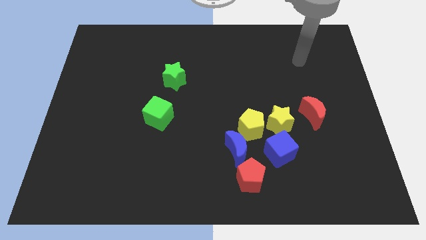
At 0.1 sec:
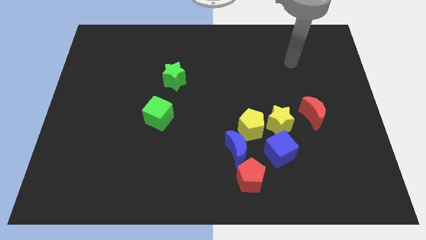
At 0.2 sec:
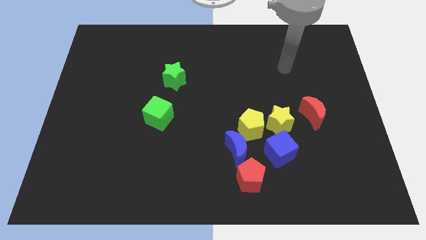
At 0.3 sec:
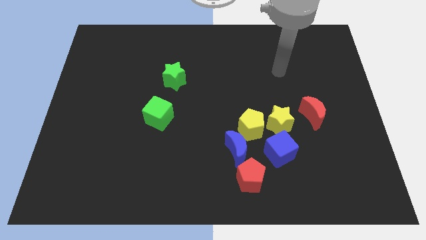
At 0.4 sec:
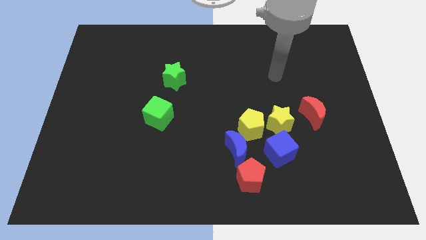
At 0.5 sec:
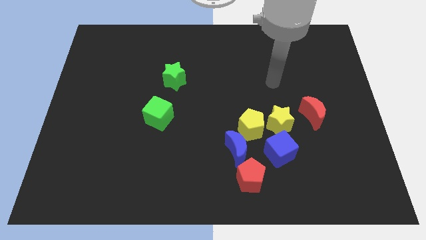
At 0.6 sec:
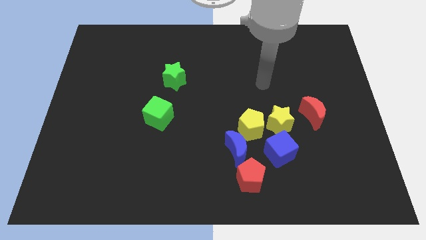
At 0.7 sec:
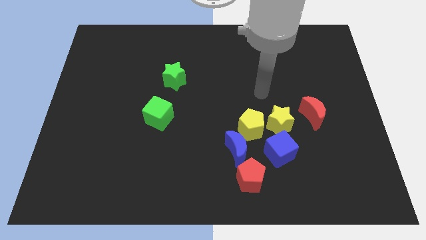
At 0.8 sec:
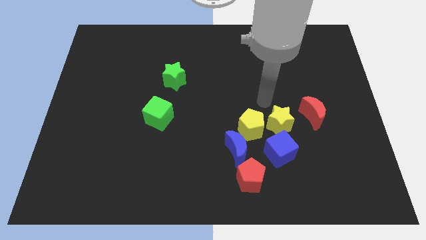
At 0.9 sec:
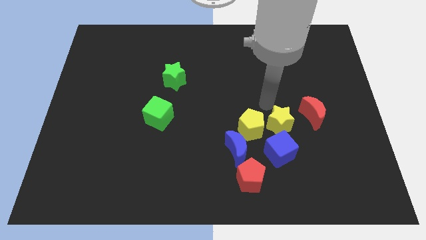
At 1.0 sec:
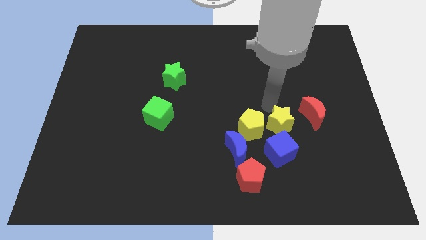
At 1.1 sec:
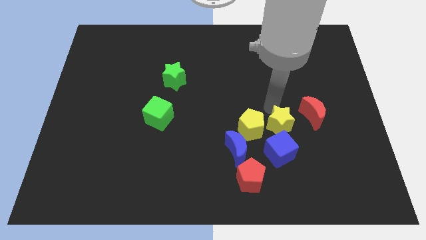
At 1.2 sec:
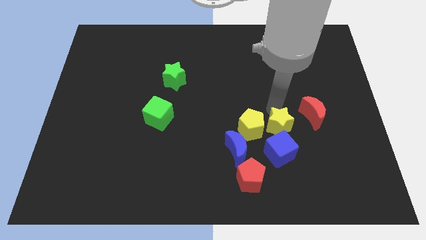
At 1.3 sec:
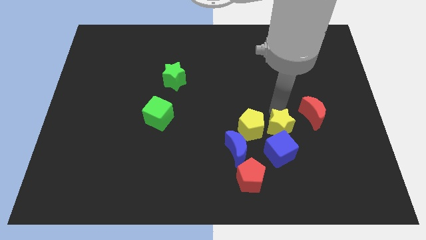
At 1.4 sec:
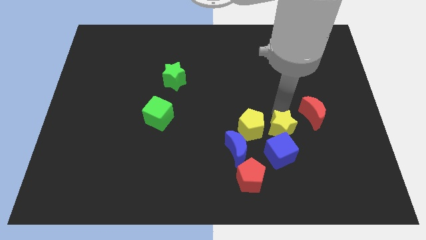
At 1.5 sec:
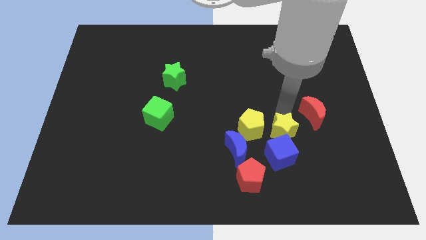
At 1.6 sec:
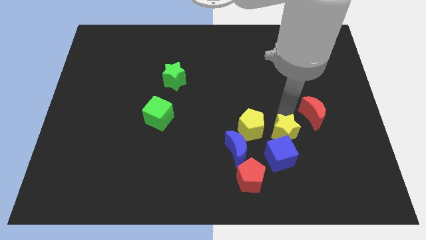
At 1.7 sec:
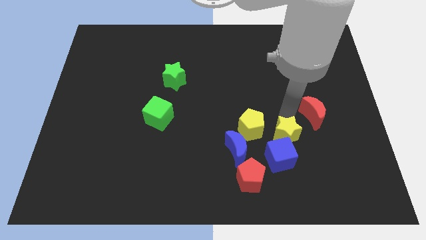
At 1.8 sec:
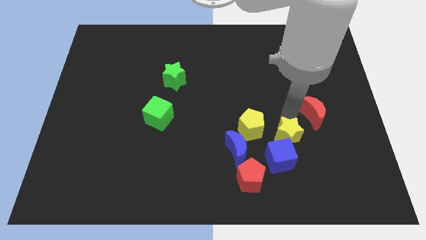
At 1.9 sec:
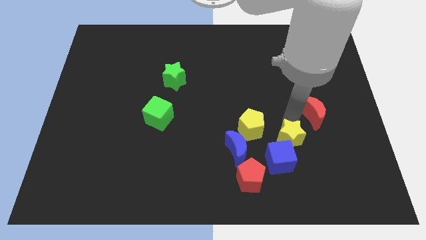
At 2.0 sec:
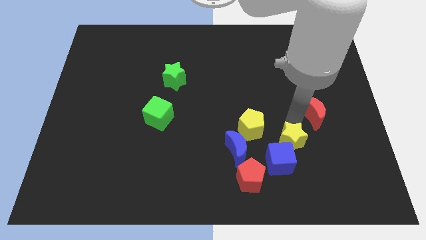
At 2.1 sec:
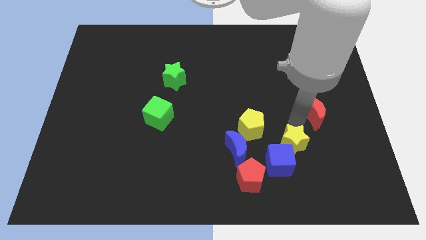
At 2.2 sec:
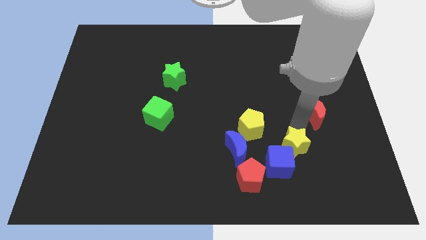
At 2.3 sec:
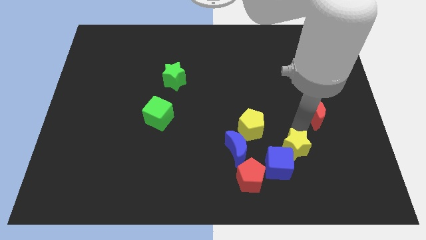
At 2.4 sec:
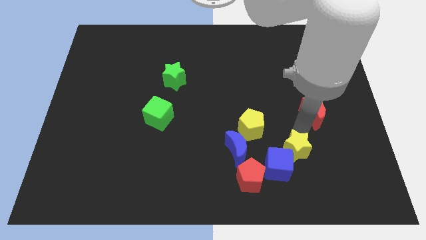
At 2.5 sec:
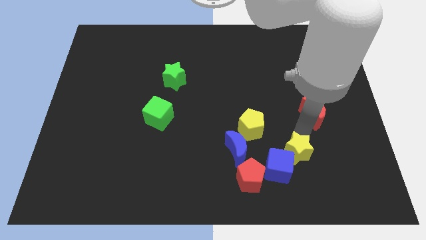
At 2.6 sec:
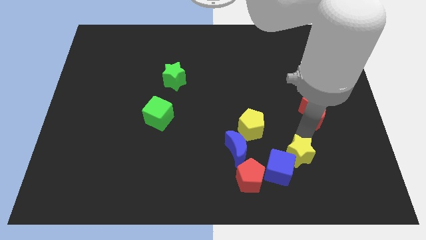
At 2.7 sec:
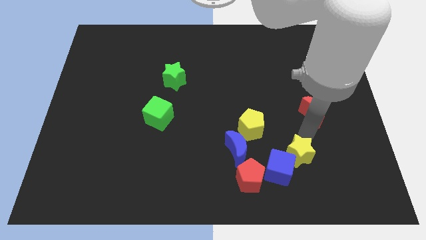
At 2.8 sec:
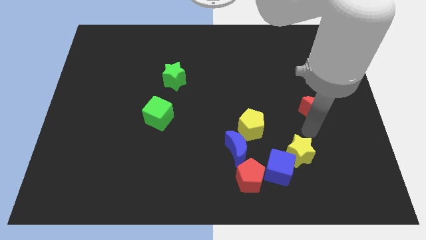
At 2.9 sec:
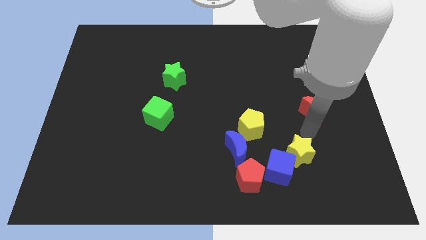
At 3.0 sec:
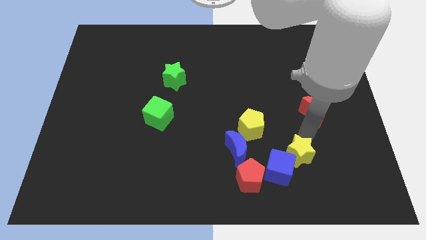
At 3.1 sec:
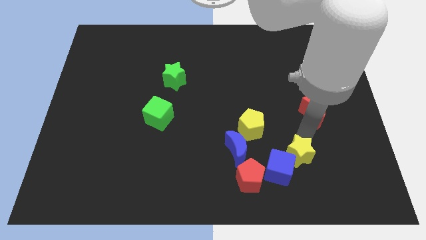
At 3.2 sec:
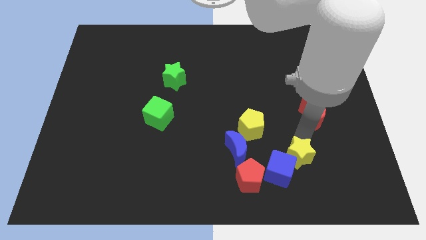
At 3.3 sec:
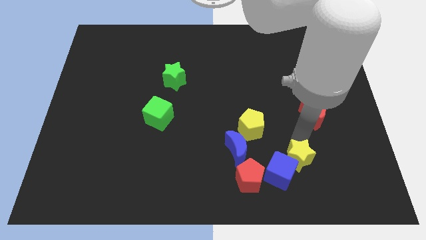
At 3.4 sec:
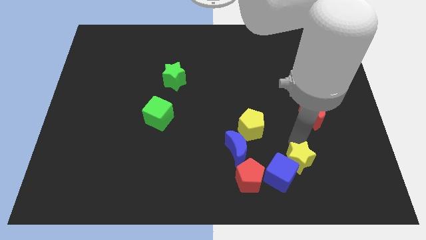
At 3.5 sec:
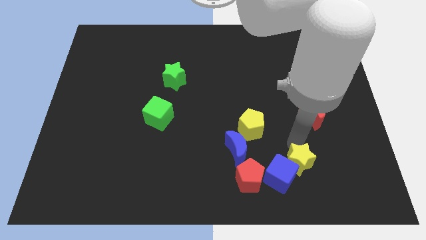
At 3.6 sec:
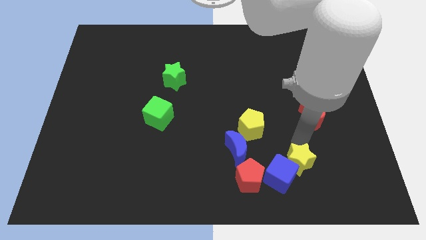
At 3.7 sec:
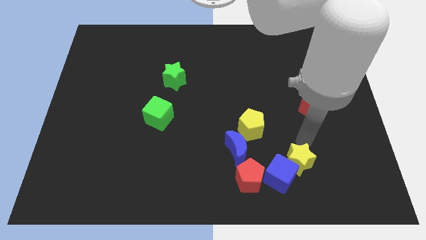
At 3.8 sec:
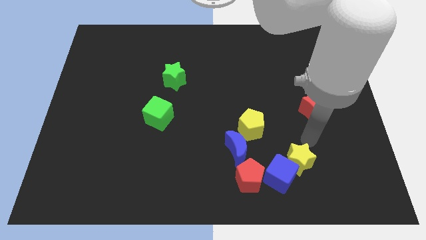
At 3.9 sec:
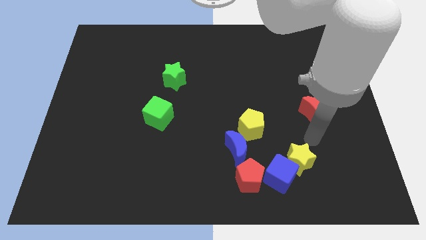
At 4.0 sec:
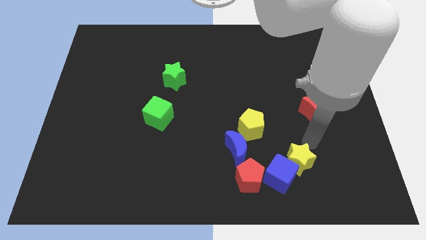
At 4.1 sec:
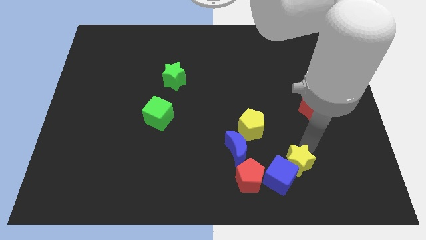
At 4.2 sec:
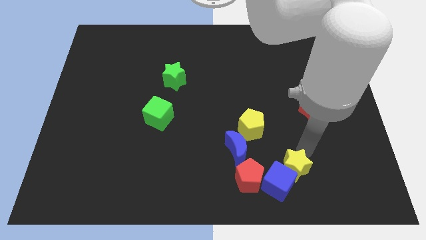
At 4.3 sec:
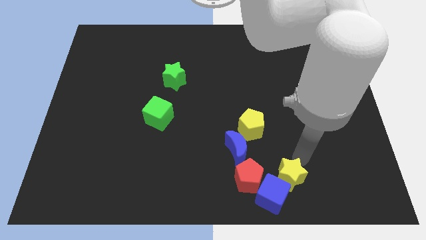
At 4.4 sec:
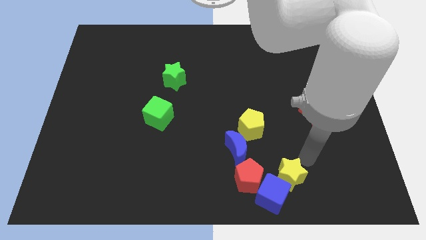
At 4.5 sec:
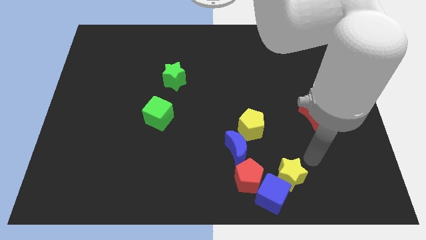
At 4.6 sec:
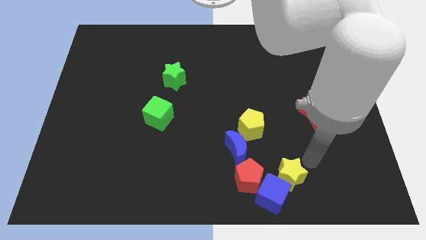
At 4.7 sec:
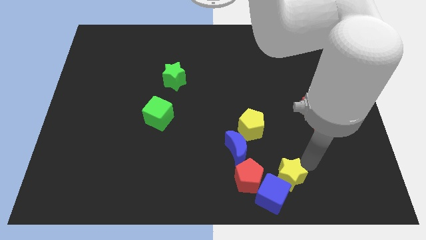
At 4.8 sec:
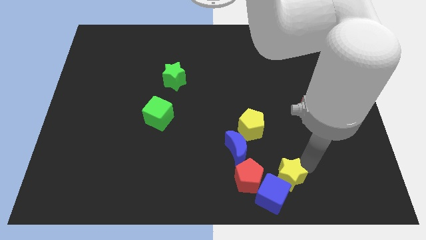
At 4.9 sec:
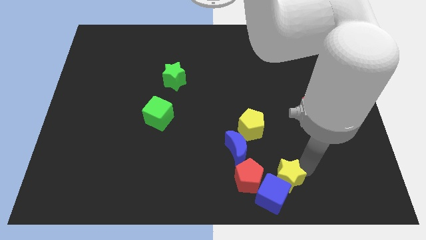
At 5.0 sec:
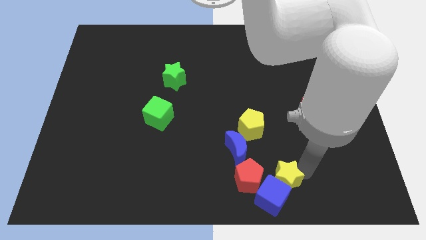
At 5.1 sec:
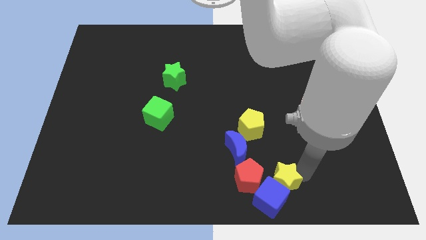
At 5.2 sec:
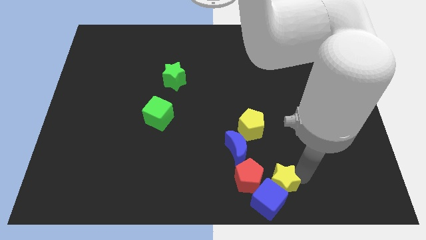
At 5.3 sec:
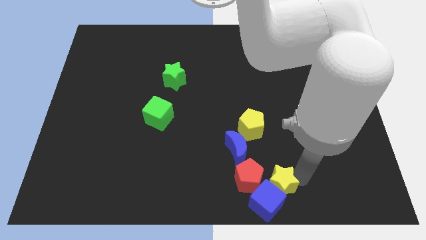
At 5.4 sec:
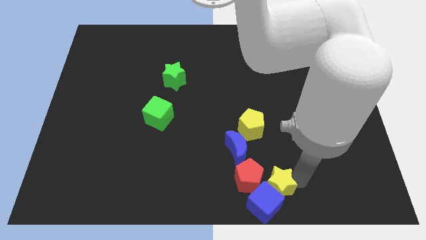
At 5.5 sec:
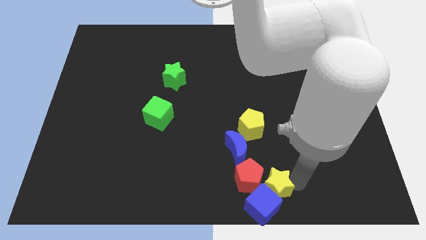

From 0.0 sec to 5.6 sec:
push the yellow star to the bottom

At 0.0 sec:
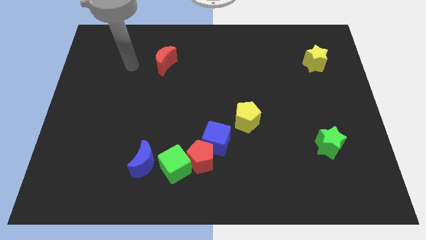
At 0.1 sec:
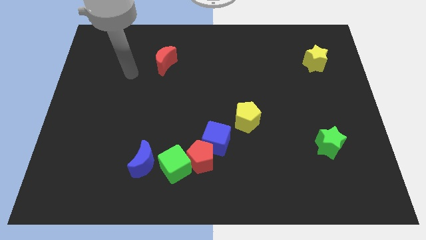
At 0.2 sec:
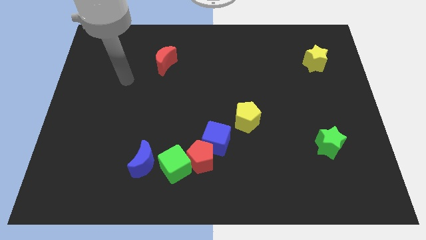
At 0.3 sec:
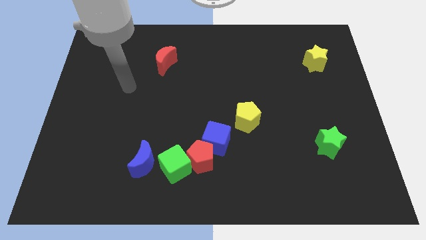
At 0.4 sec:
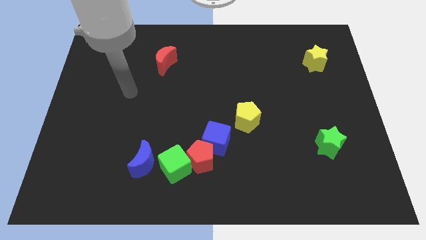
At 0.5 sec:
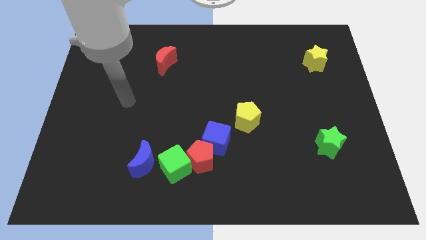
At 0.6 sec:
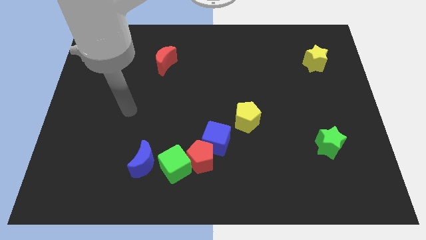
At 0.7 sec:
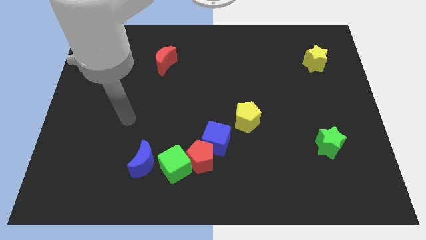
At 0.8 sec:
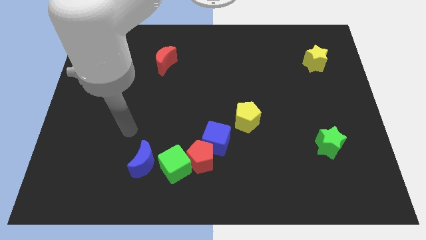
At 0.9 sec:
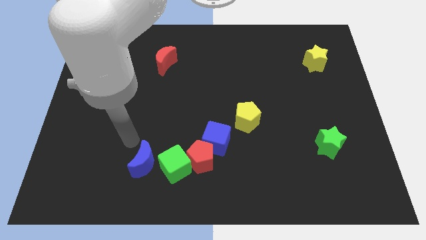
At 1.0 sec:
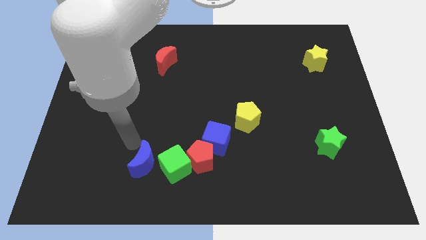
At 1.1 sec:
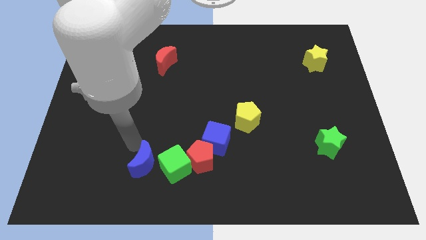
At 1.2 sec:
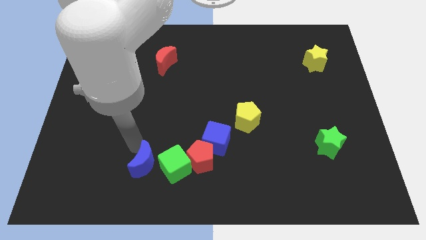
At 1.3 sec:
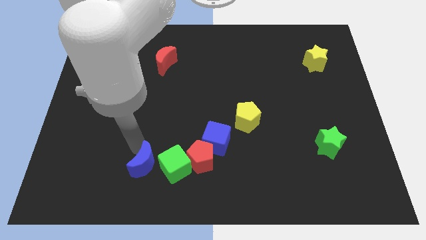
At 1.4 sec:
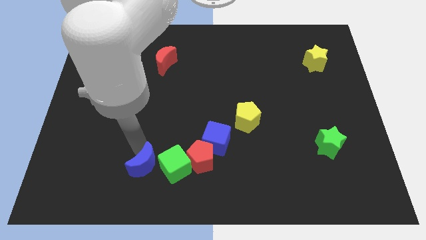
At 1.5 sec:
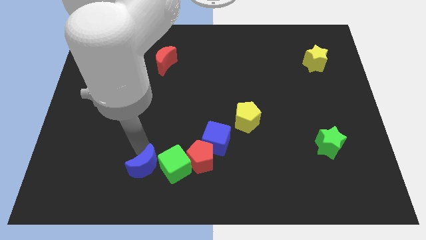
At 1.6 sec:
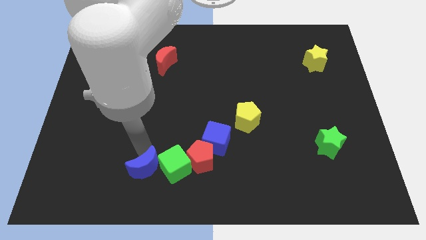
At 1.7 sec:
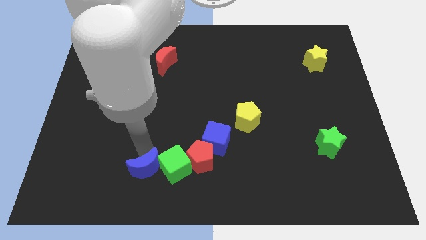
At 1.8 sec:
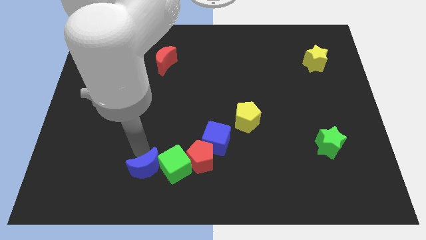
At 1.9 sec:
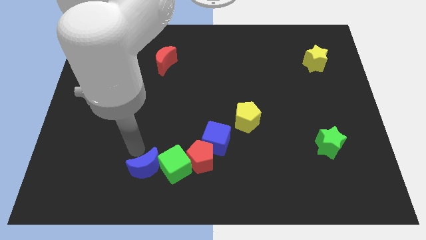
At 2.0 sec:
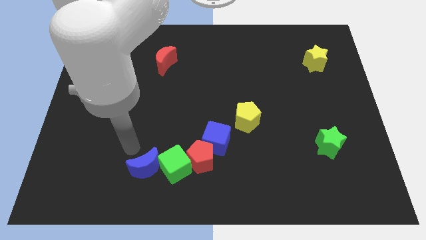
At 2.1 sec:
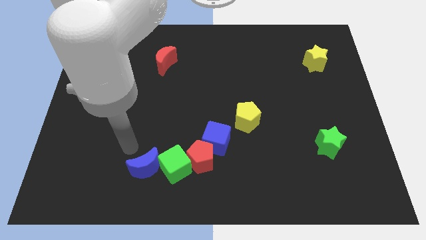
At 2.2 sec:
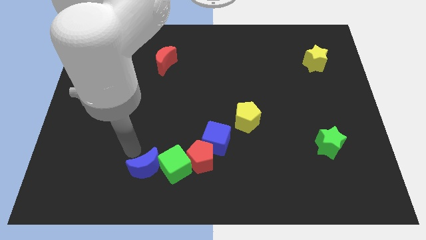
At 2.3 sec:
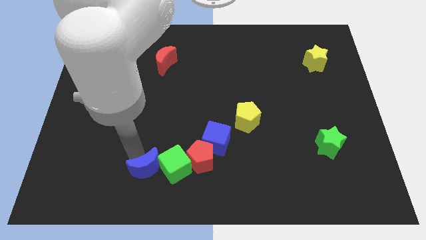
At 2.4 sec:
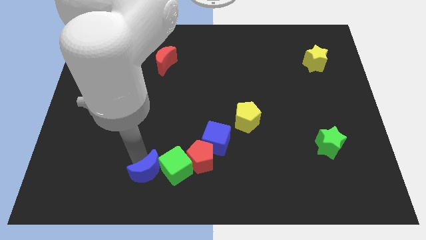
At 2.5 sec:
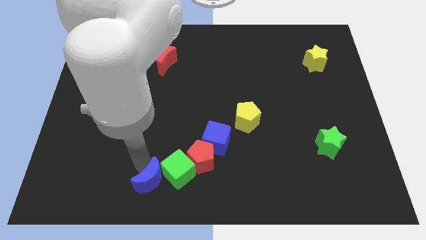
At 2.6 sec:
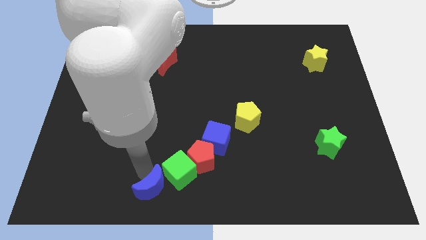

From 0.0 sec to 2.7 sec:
push the blue moon to the bottom side
